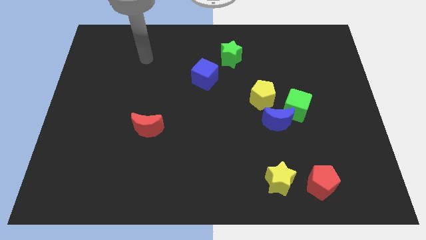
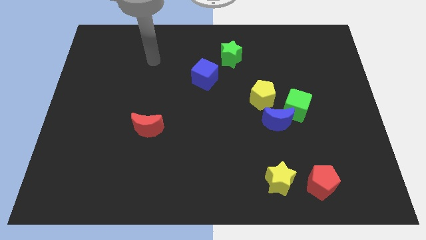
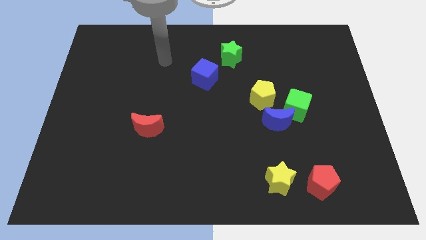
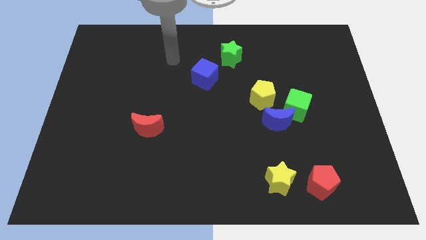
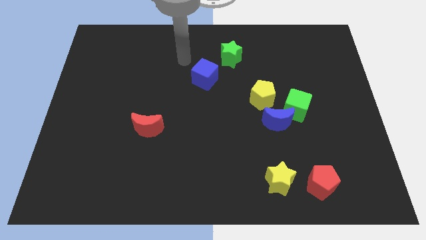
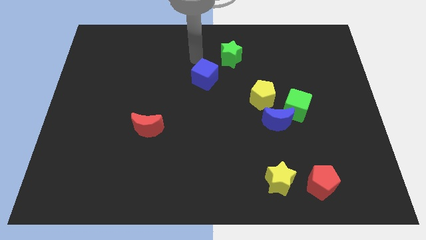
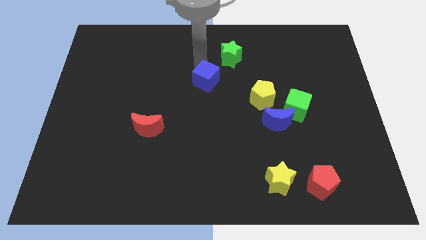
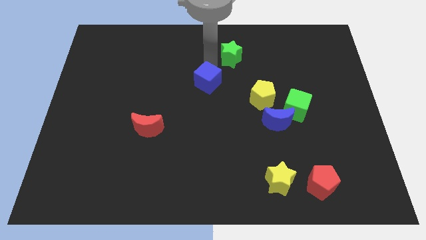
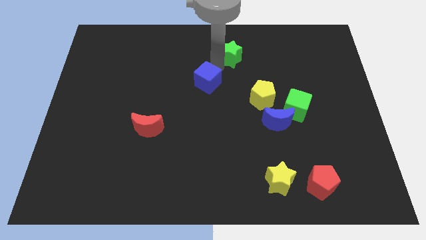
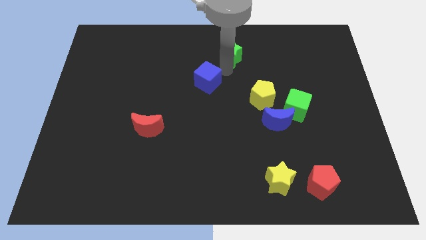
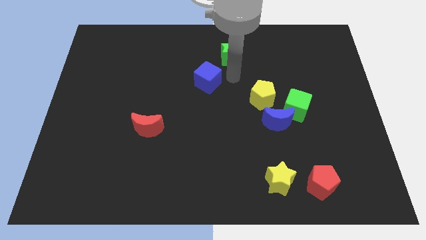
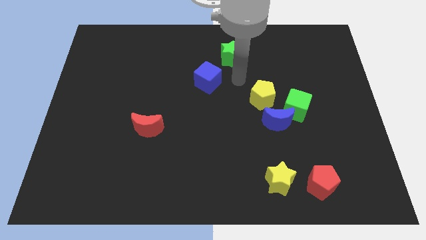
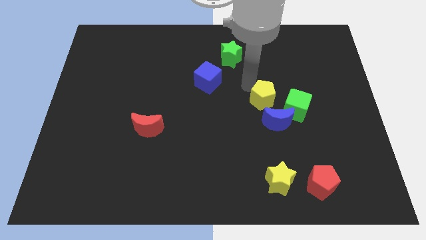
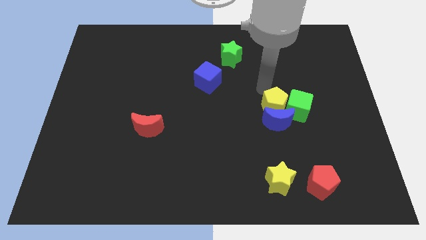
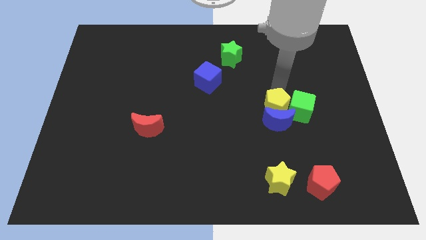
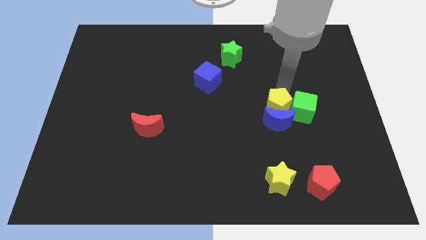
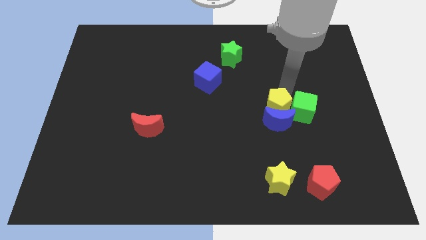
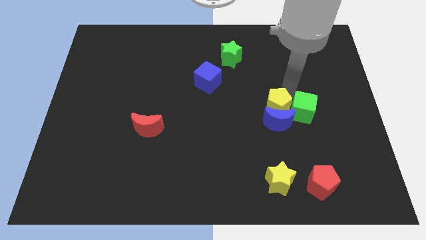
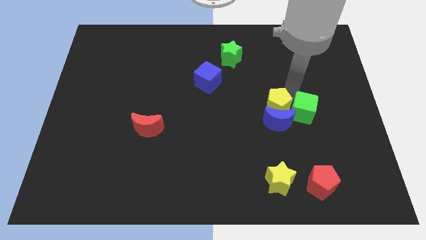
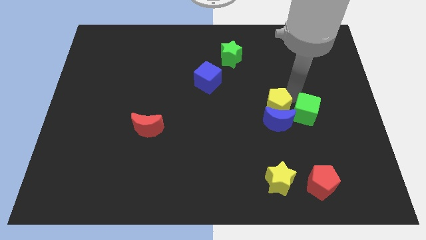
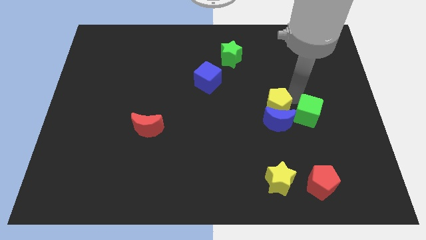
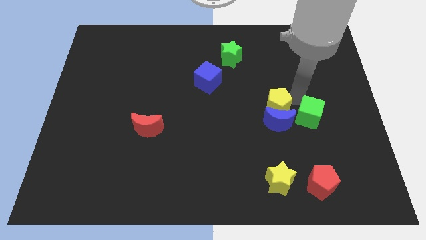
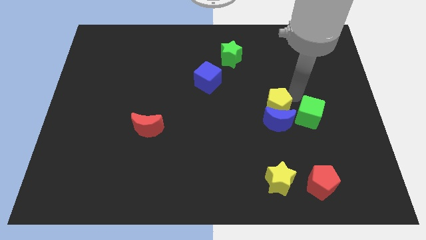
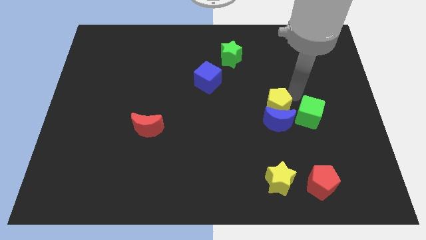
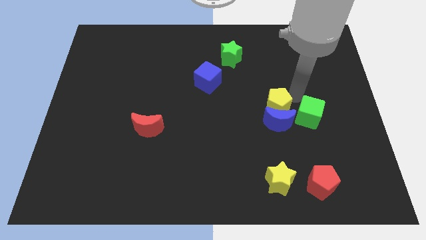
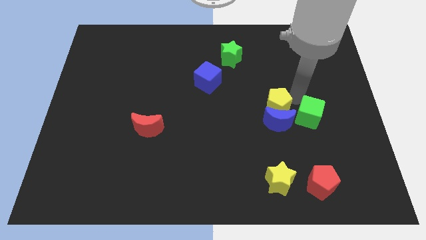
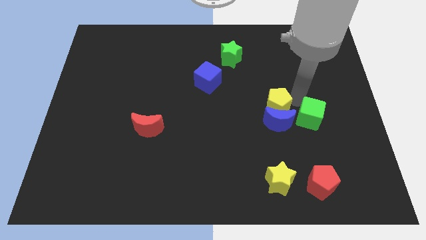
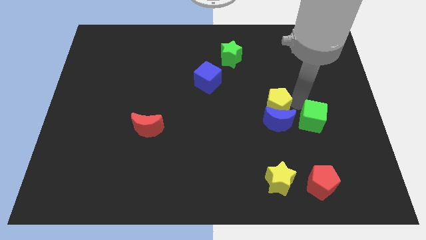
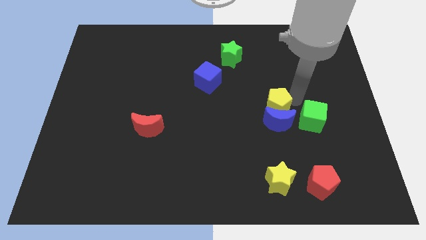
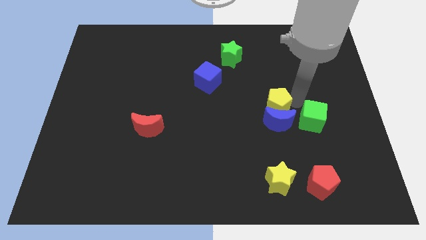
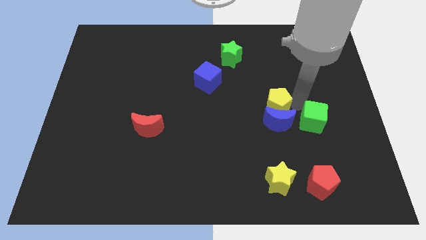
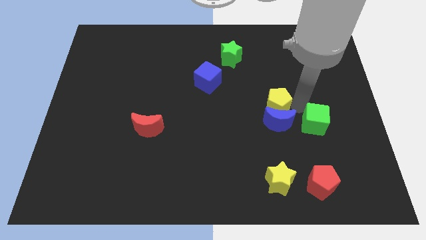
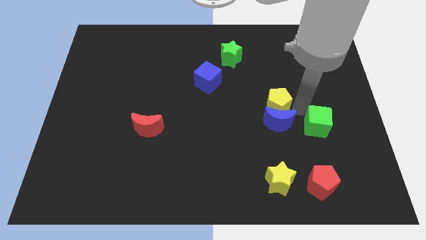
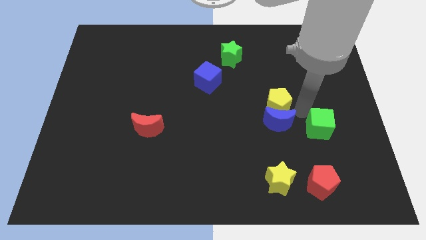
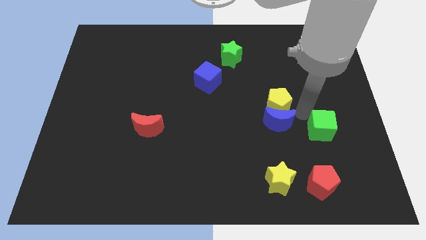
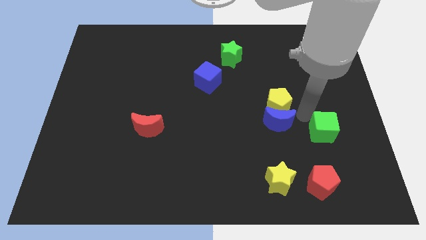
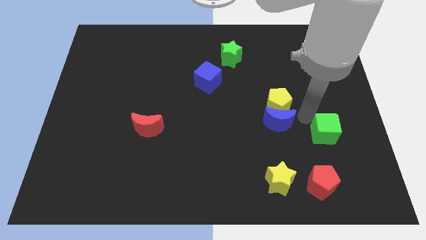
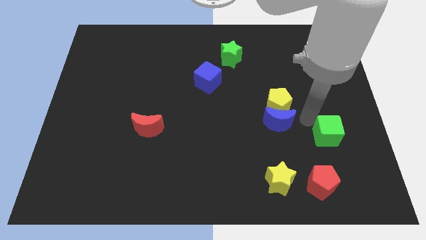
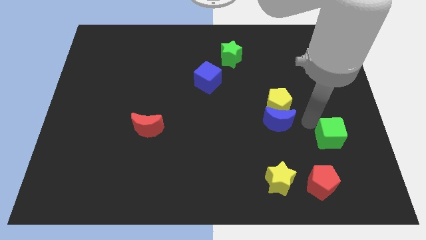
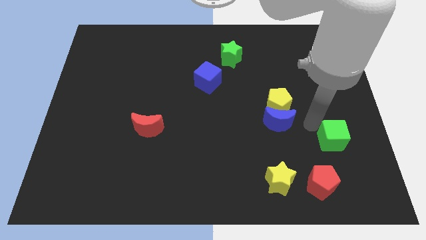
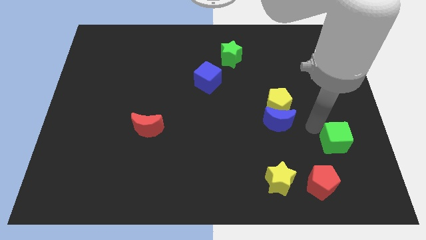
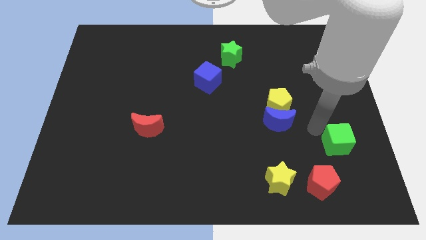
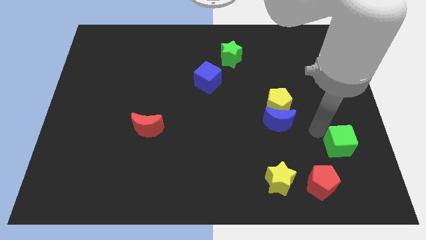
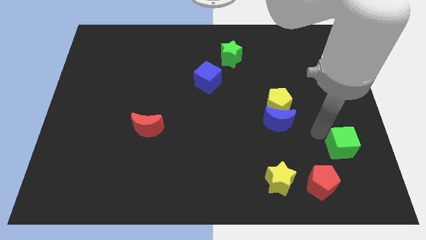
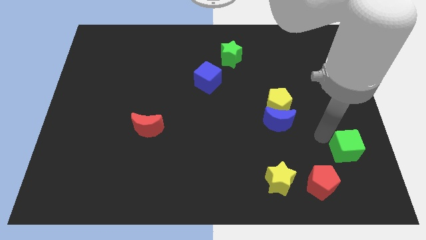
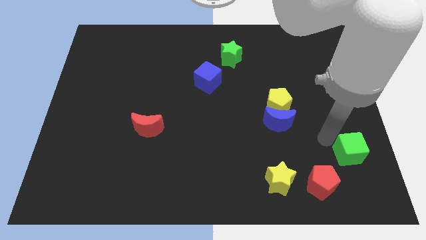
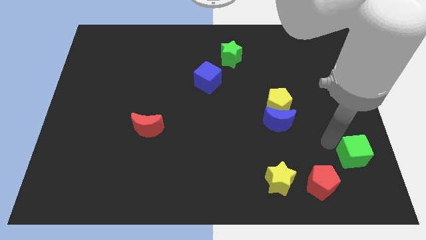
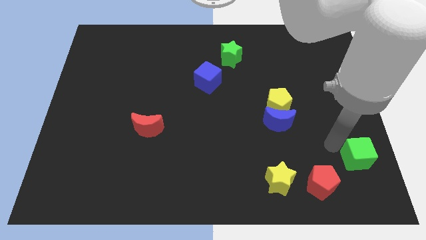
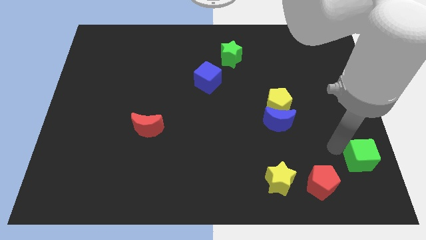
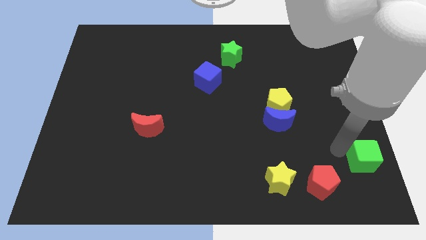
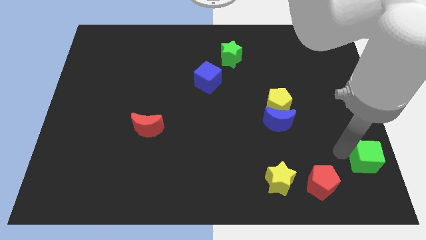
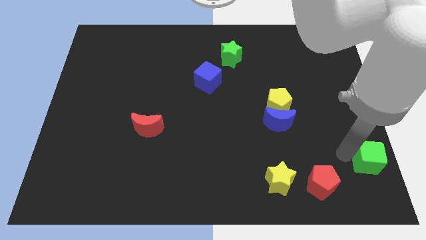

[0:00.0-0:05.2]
move the green cube to the bottom right of the board

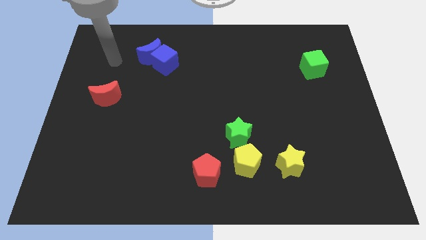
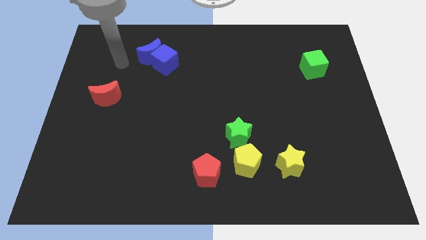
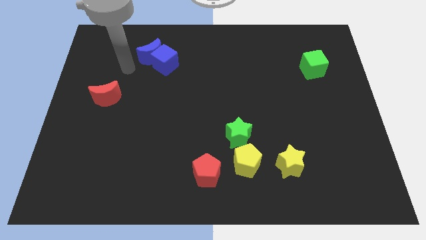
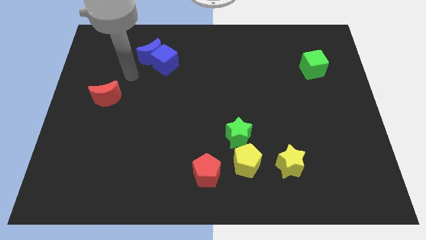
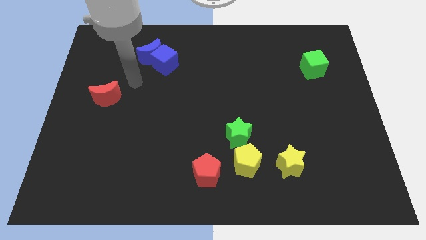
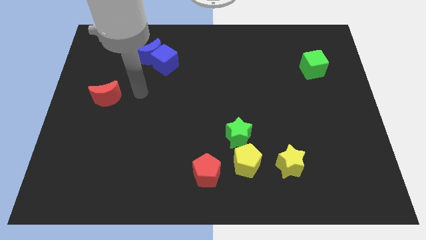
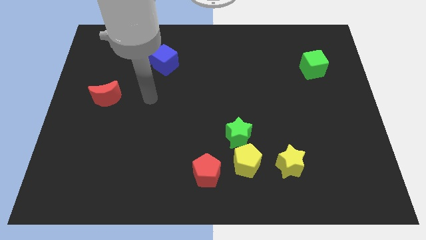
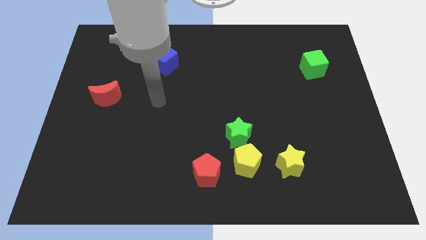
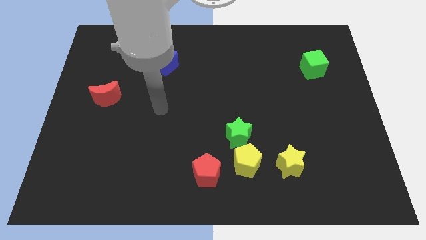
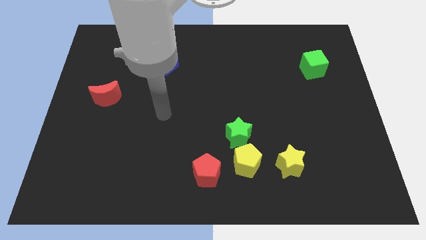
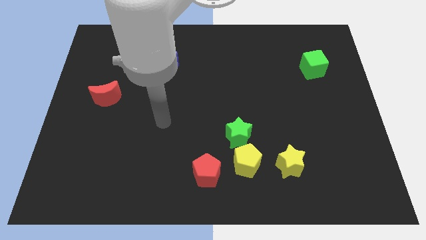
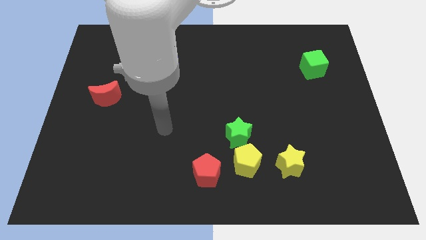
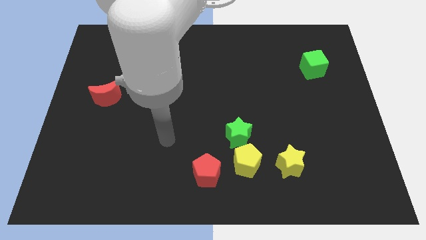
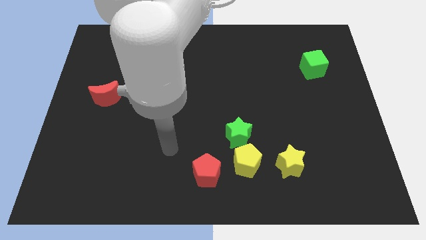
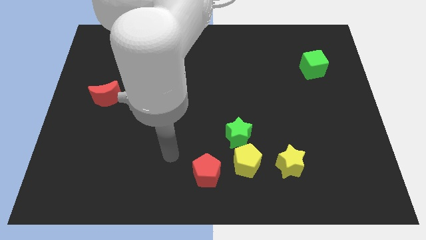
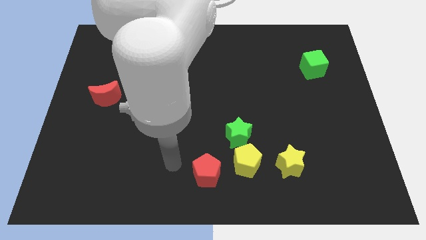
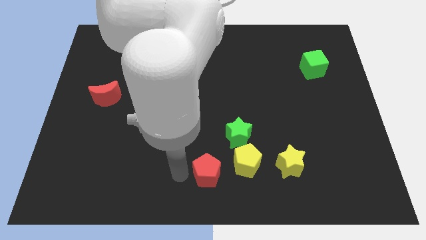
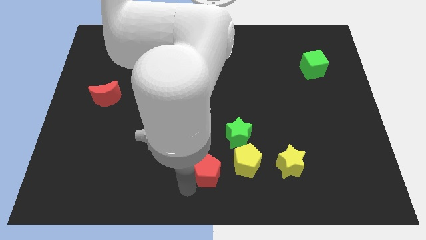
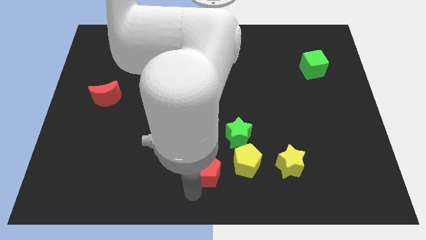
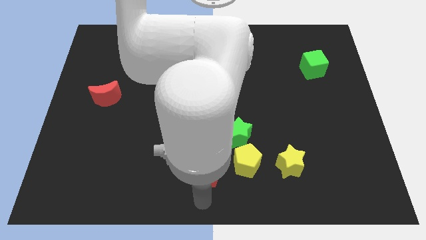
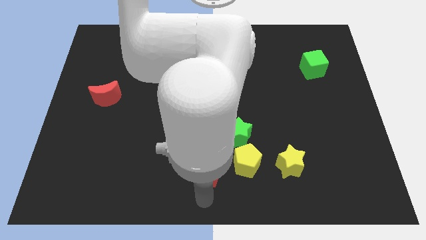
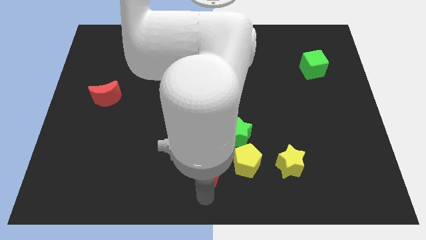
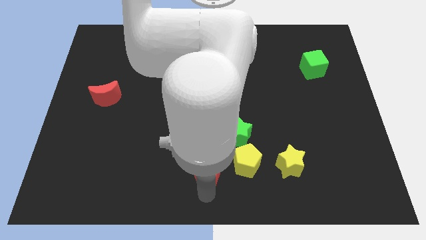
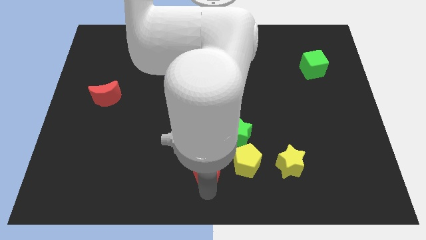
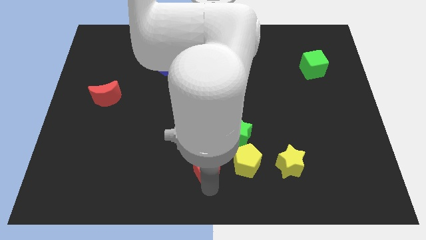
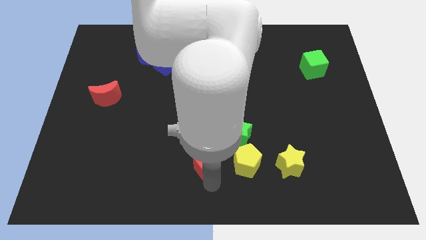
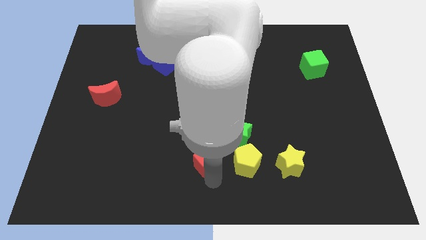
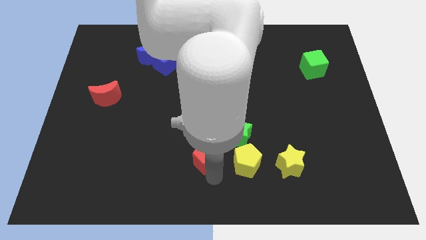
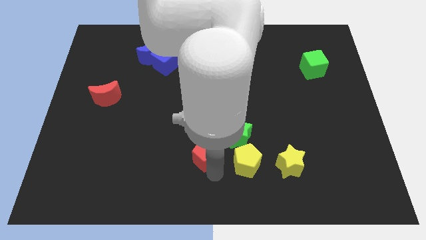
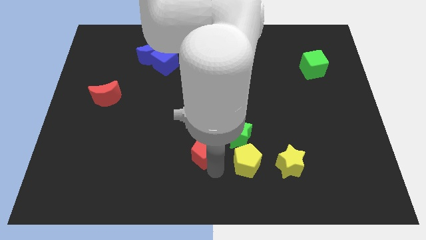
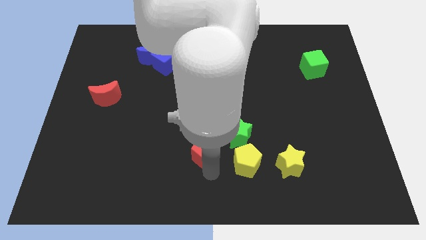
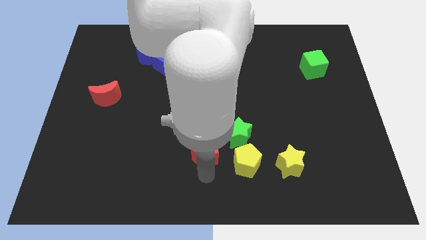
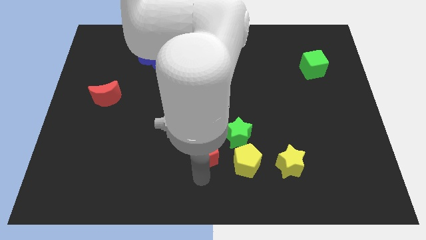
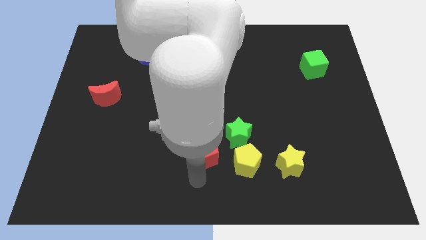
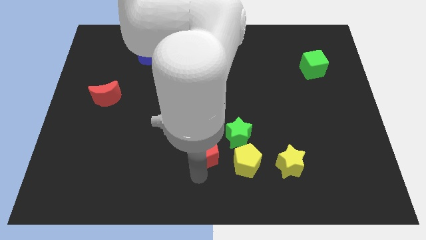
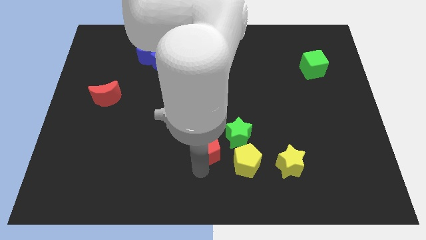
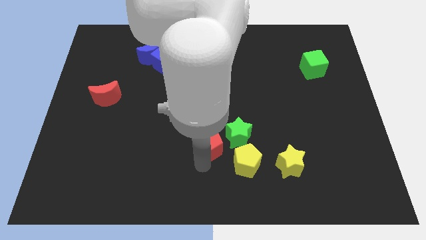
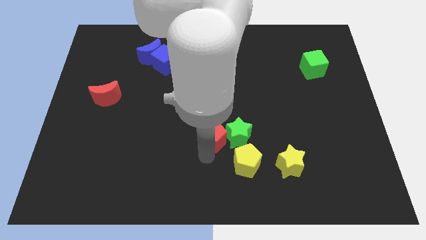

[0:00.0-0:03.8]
put the red pentagon to the center of the board
